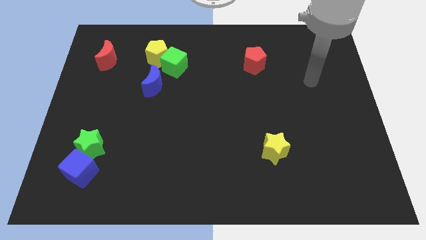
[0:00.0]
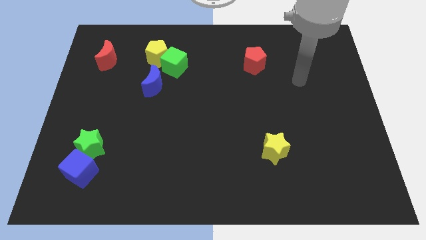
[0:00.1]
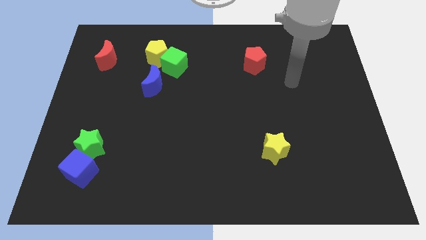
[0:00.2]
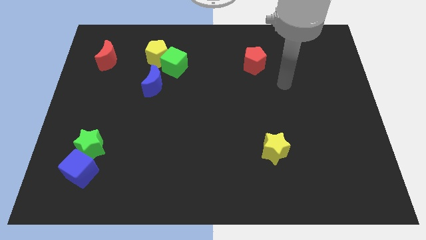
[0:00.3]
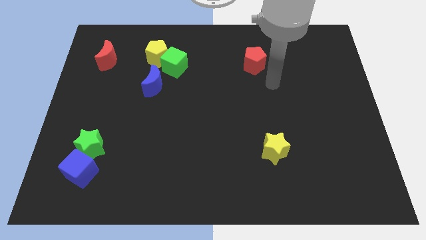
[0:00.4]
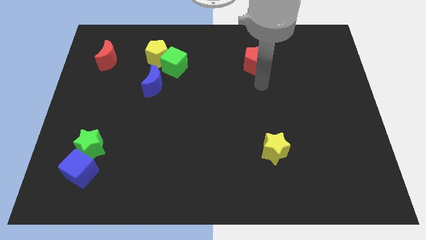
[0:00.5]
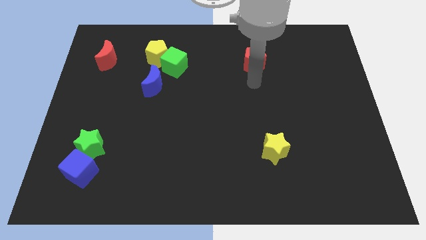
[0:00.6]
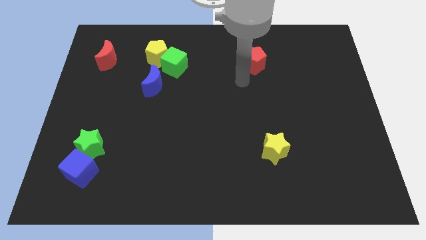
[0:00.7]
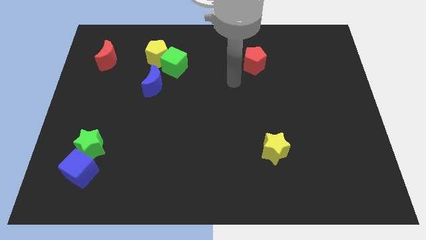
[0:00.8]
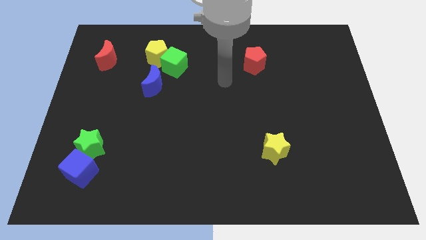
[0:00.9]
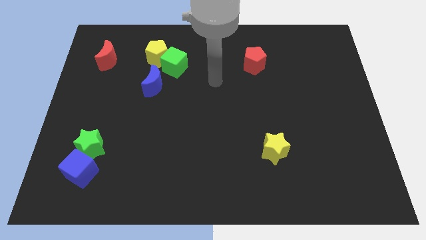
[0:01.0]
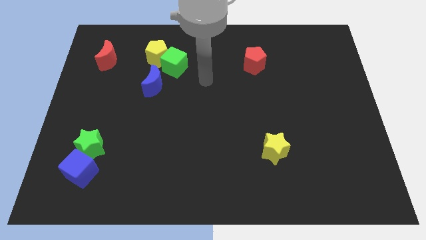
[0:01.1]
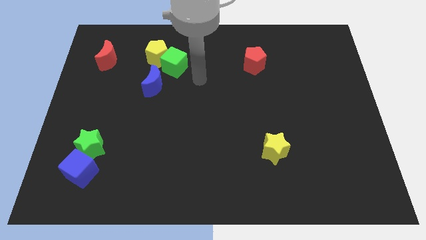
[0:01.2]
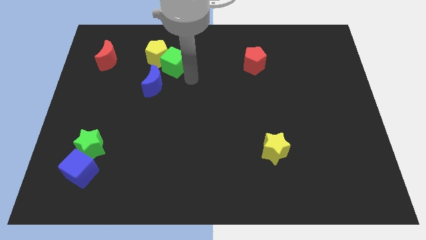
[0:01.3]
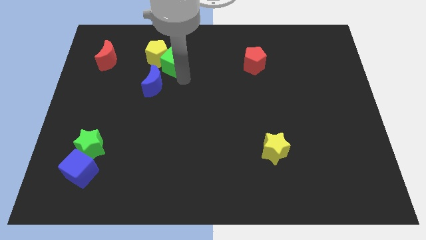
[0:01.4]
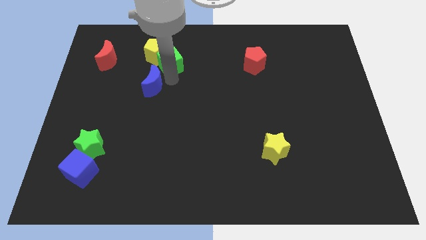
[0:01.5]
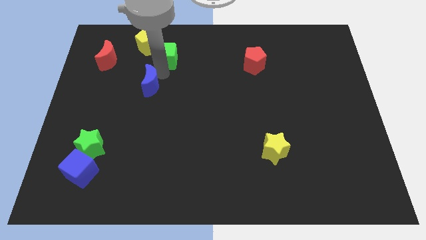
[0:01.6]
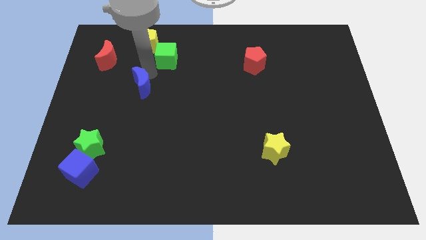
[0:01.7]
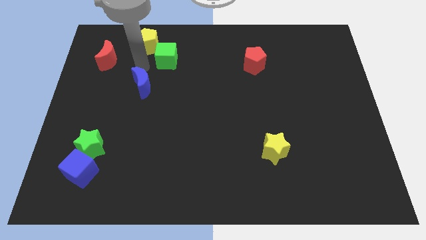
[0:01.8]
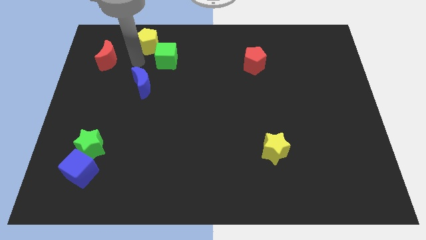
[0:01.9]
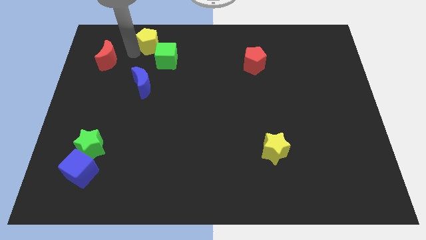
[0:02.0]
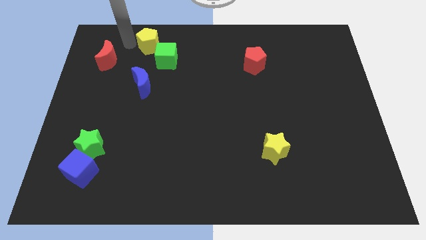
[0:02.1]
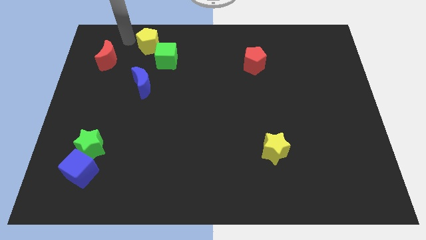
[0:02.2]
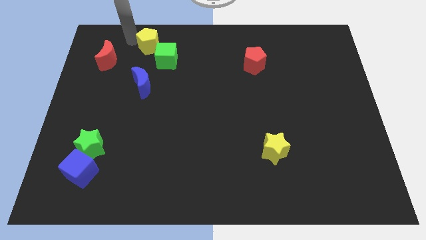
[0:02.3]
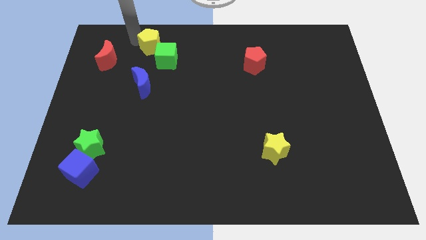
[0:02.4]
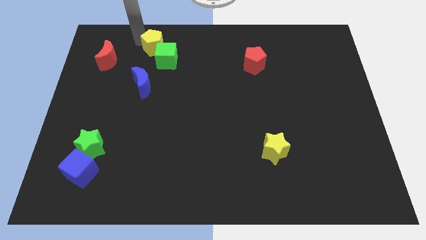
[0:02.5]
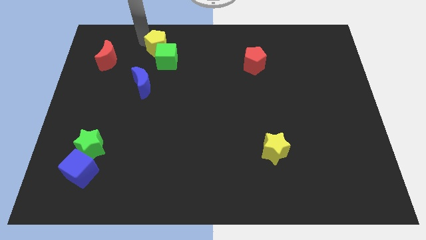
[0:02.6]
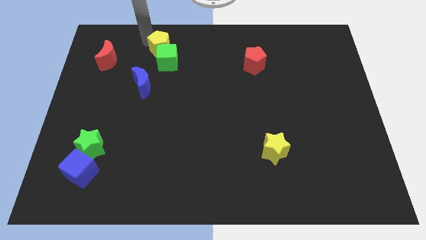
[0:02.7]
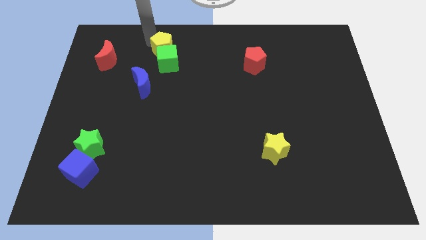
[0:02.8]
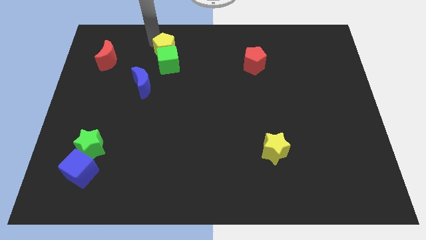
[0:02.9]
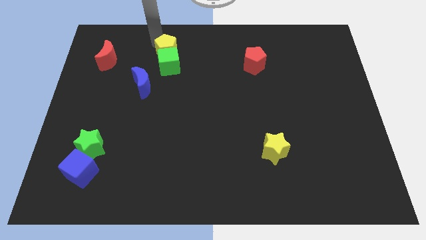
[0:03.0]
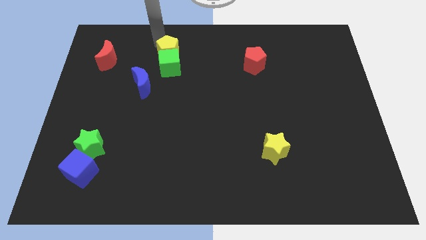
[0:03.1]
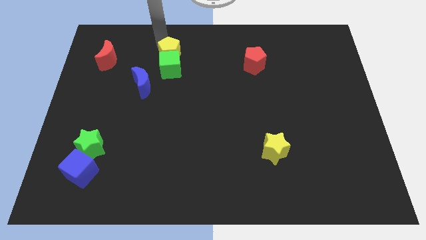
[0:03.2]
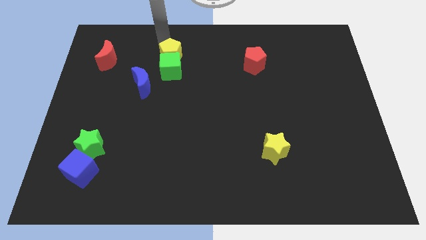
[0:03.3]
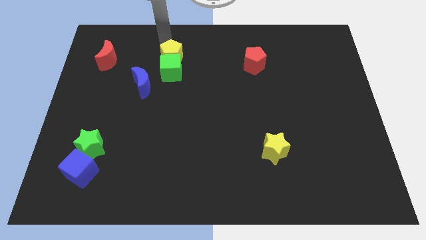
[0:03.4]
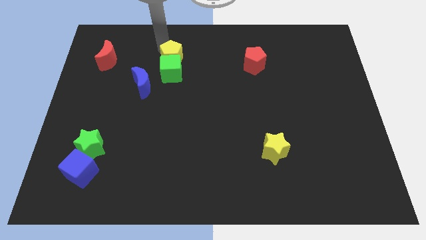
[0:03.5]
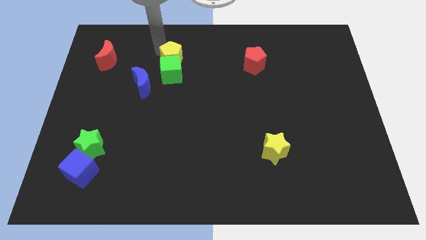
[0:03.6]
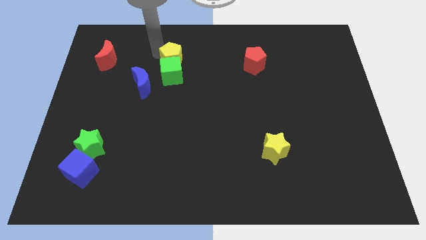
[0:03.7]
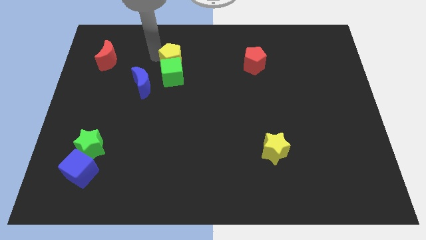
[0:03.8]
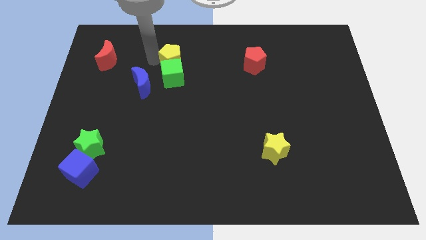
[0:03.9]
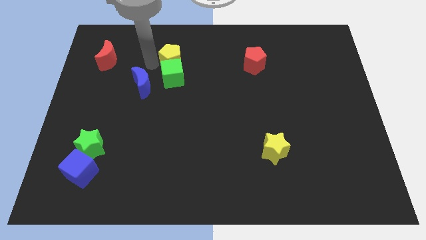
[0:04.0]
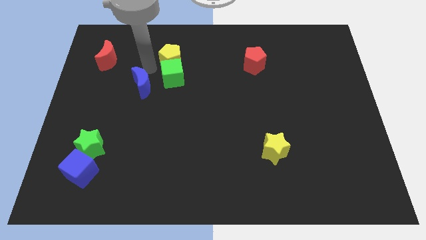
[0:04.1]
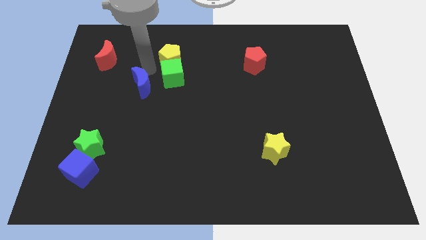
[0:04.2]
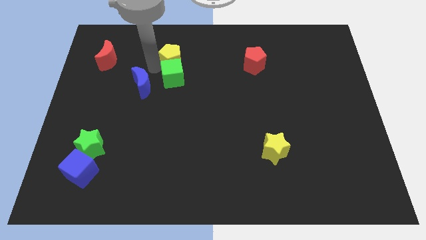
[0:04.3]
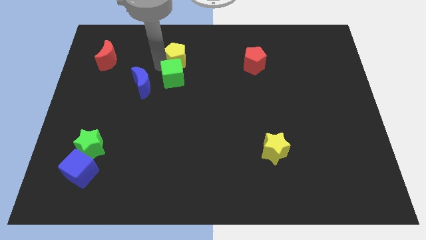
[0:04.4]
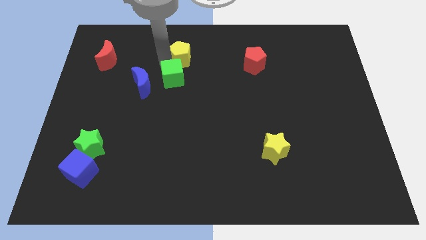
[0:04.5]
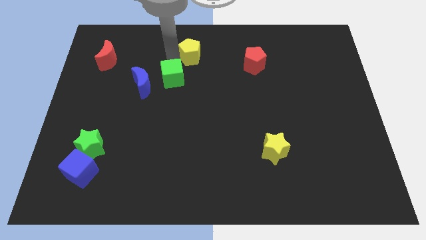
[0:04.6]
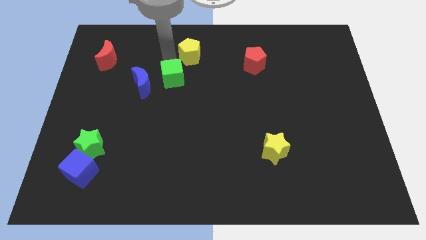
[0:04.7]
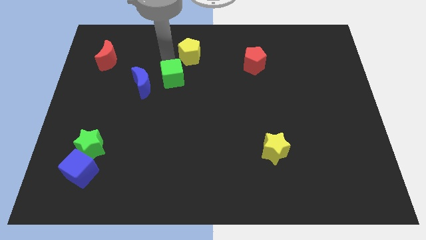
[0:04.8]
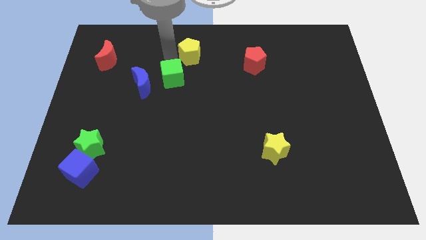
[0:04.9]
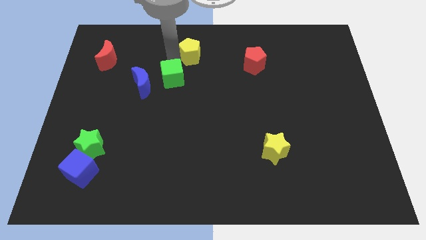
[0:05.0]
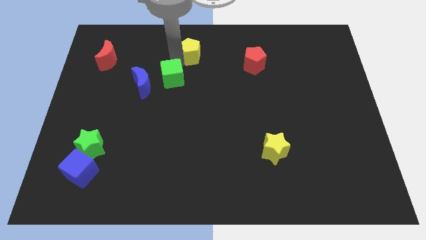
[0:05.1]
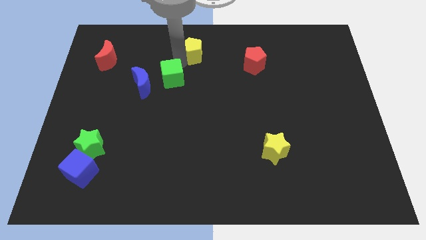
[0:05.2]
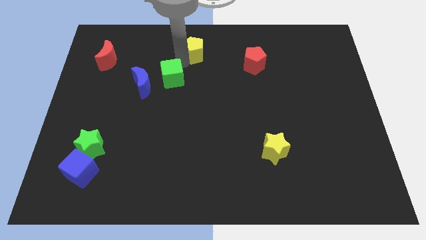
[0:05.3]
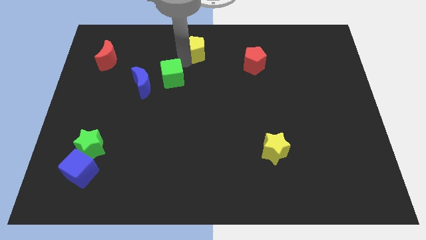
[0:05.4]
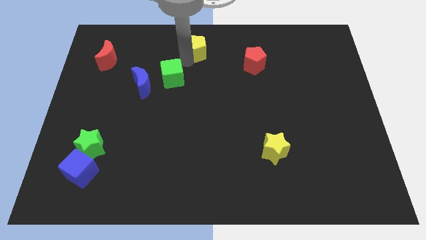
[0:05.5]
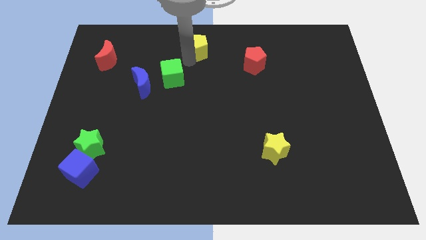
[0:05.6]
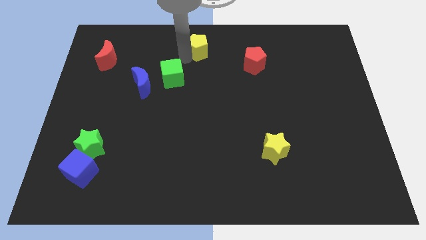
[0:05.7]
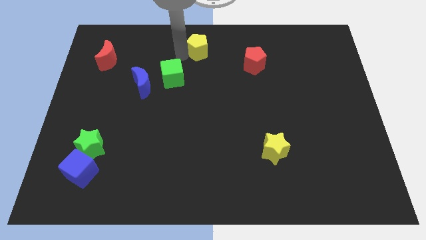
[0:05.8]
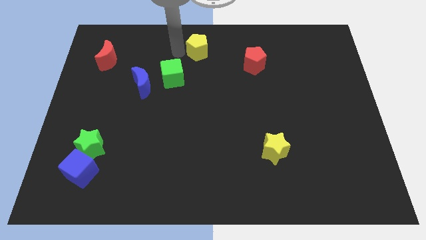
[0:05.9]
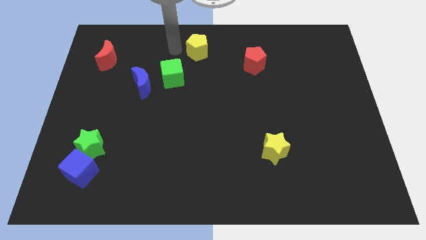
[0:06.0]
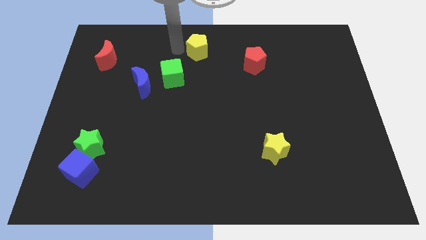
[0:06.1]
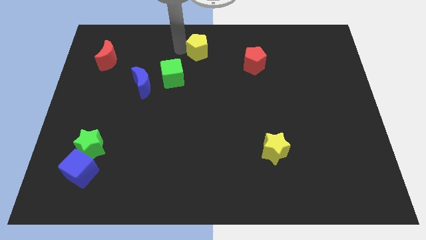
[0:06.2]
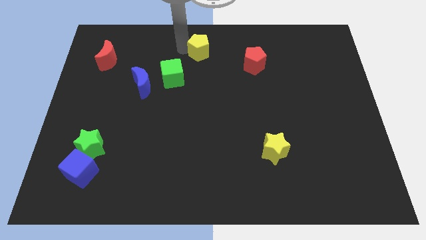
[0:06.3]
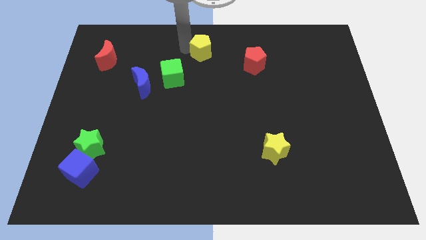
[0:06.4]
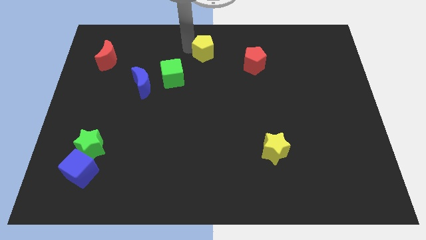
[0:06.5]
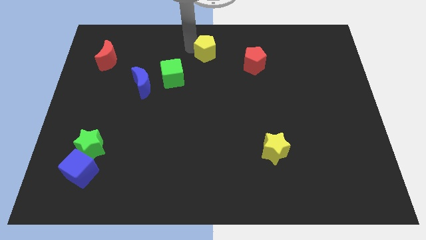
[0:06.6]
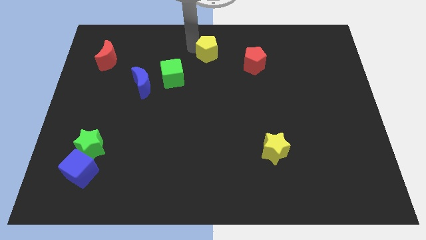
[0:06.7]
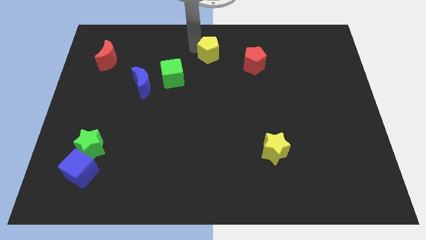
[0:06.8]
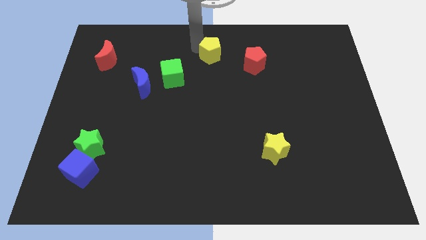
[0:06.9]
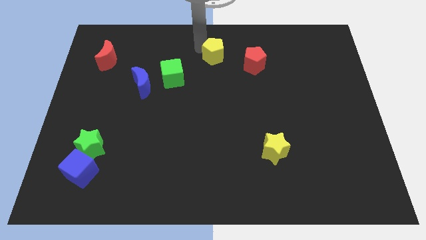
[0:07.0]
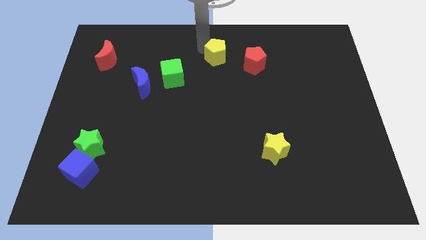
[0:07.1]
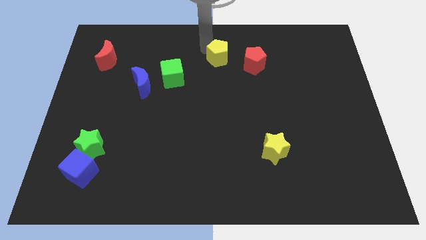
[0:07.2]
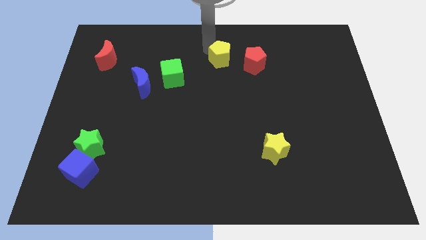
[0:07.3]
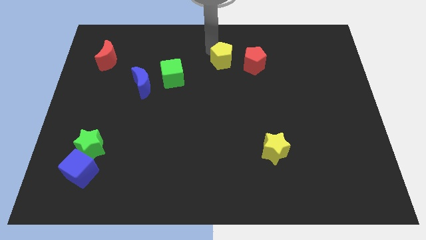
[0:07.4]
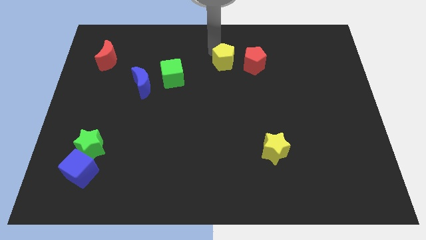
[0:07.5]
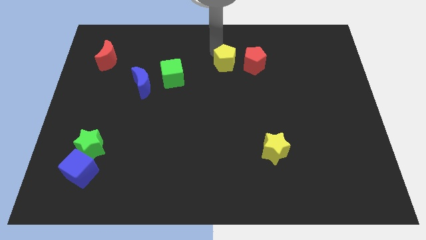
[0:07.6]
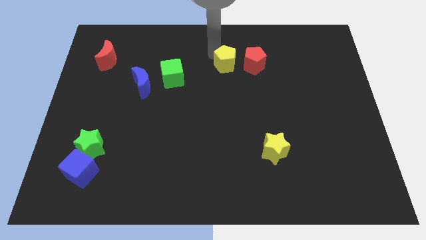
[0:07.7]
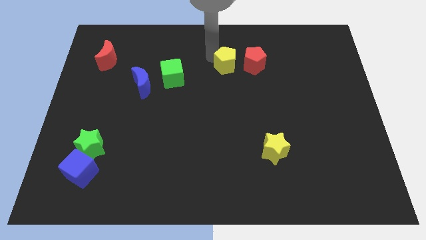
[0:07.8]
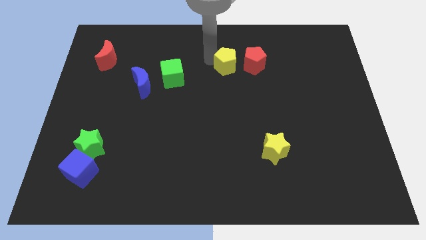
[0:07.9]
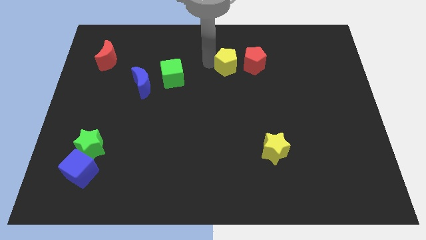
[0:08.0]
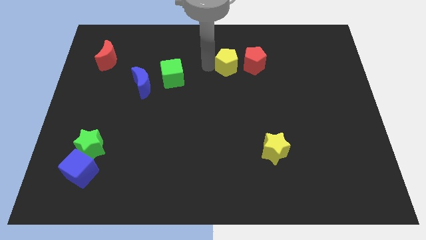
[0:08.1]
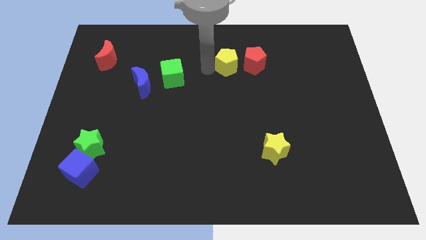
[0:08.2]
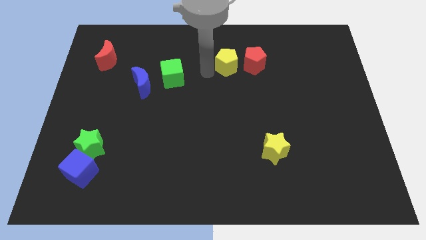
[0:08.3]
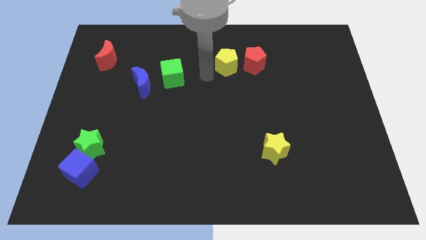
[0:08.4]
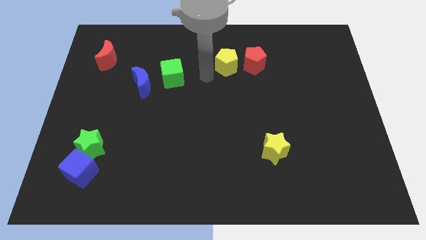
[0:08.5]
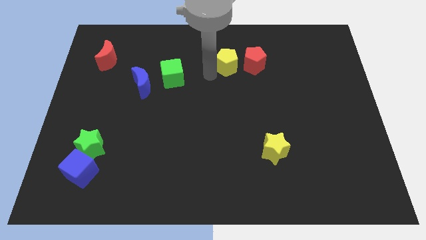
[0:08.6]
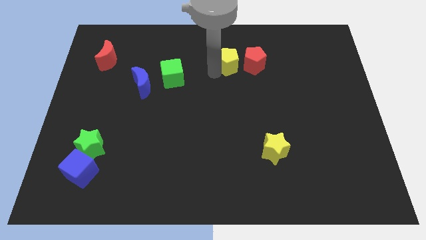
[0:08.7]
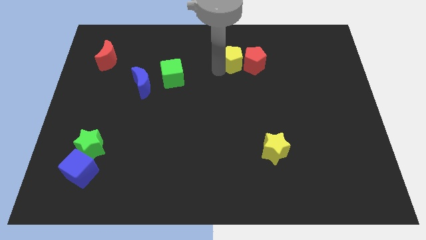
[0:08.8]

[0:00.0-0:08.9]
move the yellow pentagon next to the red pentagon
